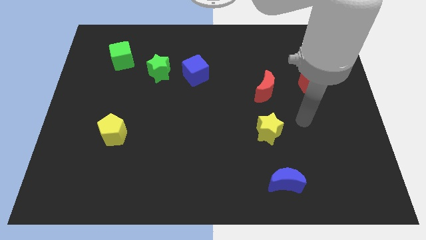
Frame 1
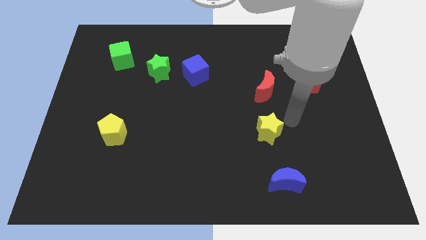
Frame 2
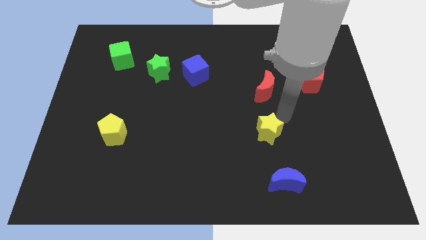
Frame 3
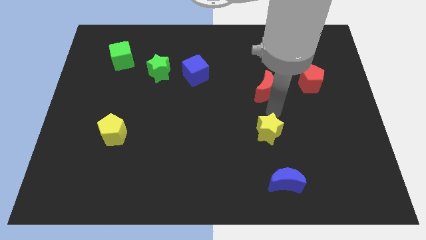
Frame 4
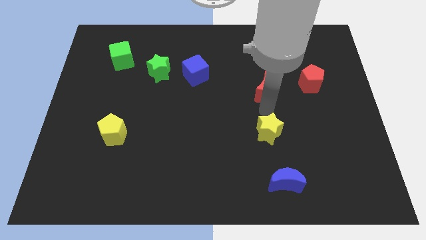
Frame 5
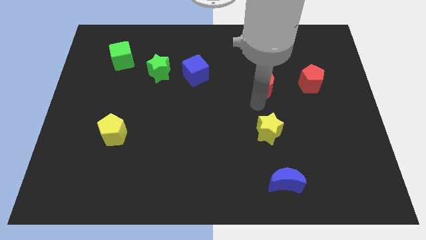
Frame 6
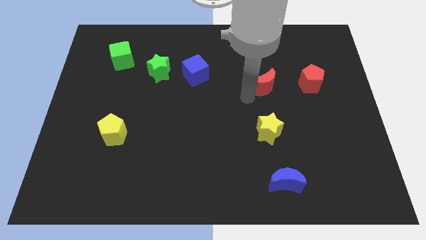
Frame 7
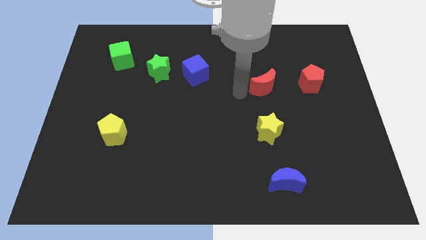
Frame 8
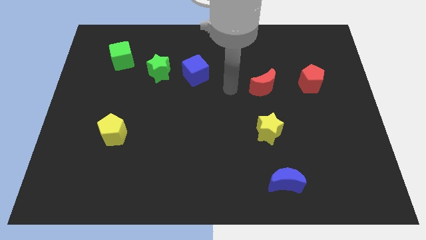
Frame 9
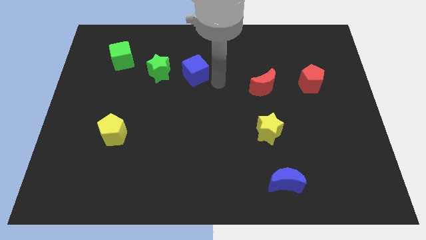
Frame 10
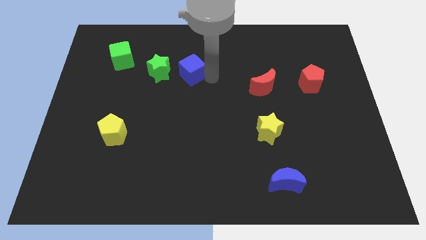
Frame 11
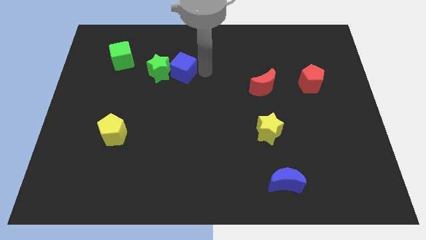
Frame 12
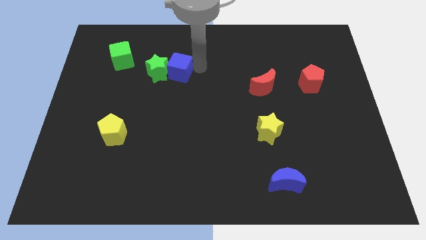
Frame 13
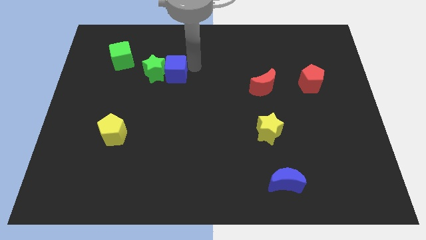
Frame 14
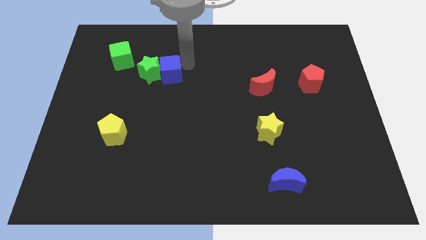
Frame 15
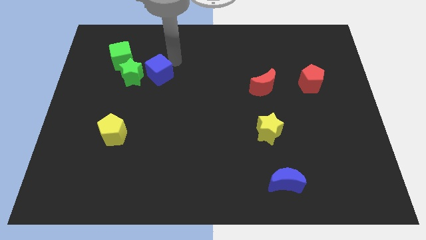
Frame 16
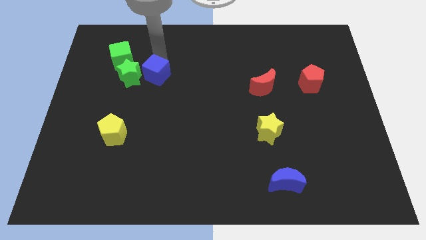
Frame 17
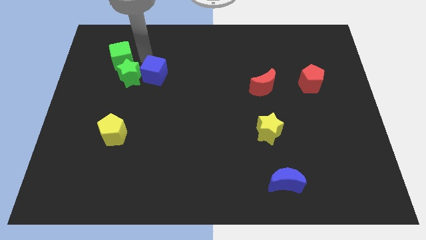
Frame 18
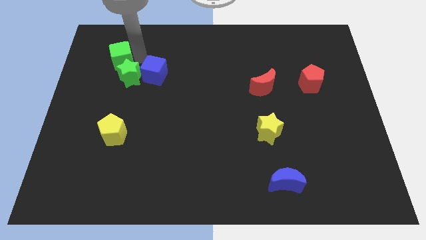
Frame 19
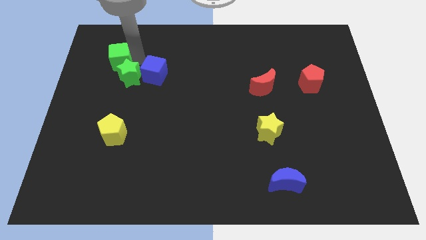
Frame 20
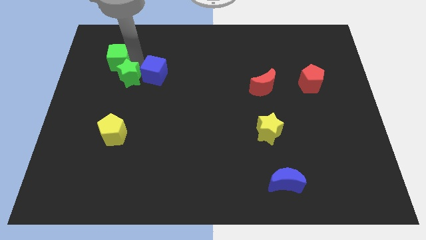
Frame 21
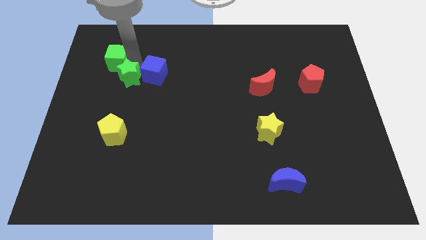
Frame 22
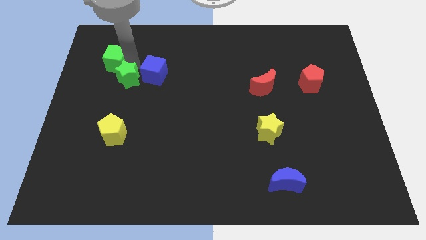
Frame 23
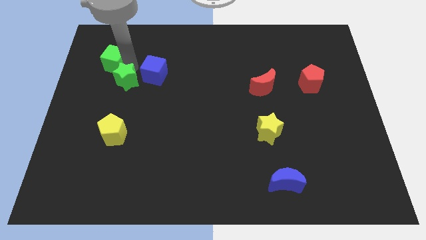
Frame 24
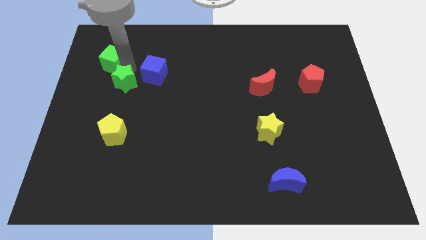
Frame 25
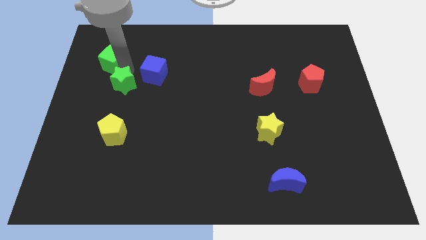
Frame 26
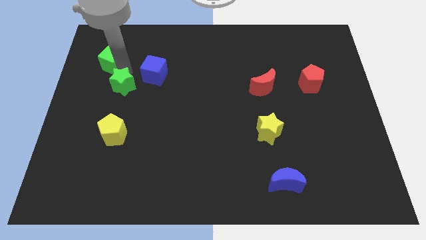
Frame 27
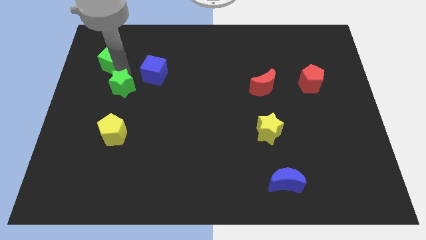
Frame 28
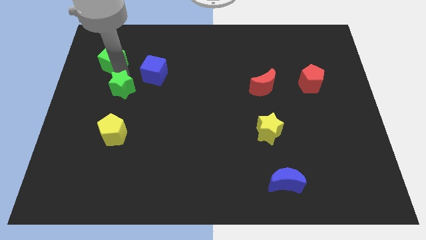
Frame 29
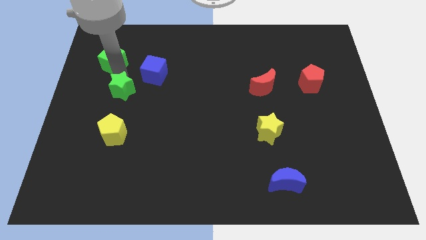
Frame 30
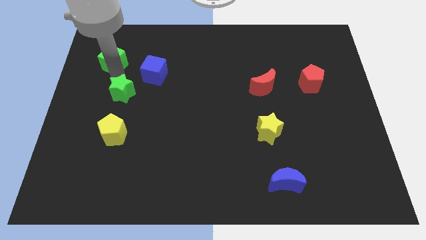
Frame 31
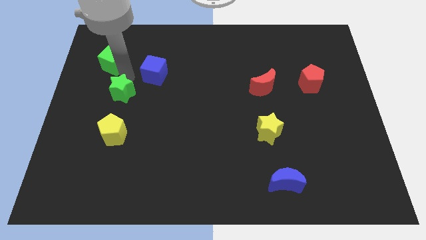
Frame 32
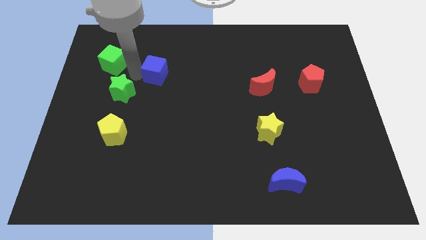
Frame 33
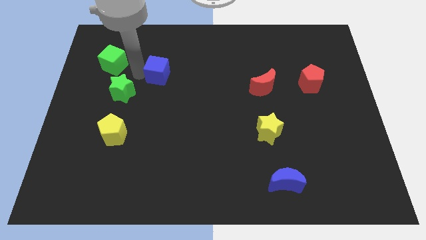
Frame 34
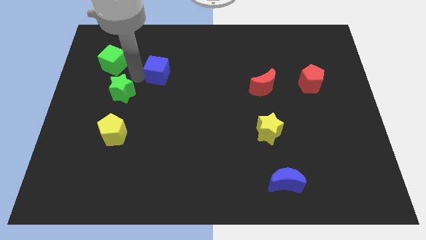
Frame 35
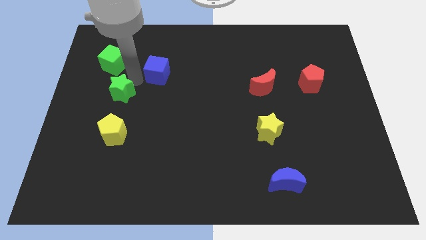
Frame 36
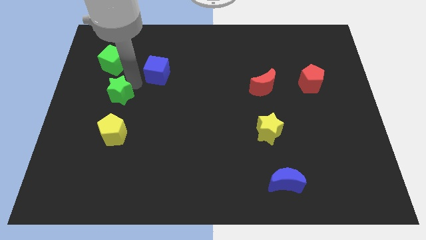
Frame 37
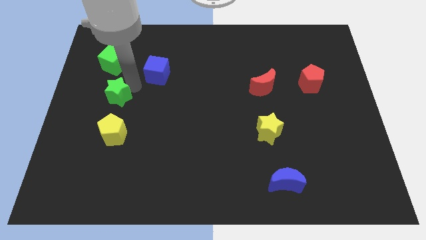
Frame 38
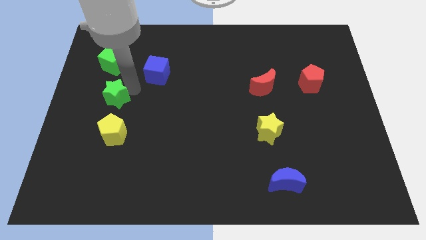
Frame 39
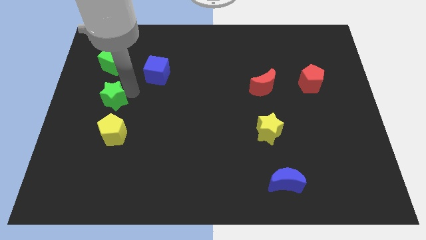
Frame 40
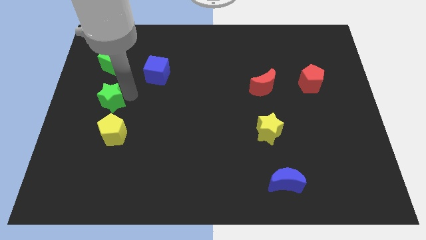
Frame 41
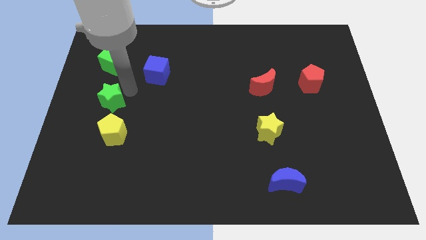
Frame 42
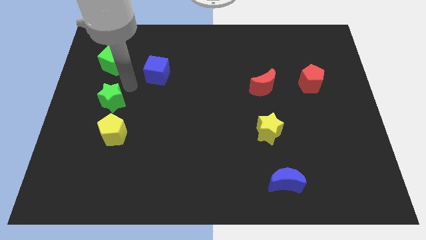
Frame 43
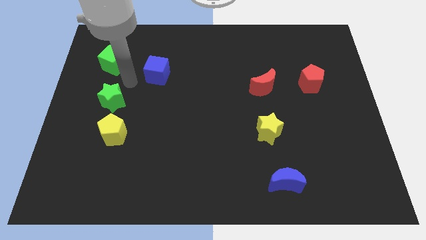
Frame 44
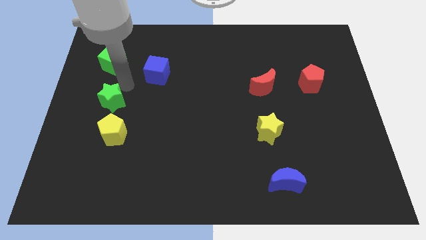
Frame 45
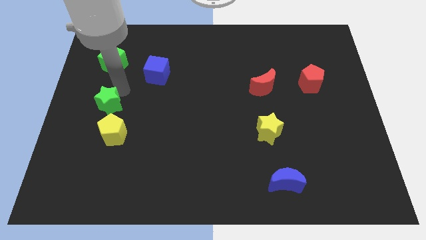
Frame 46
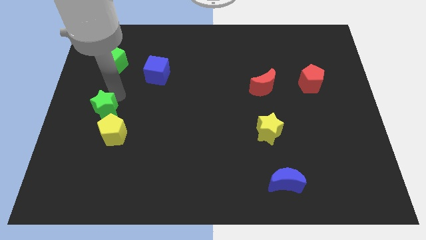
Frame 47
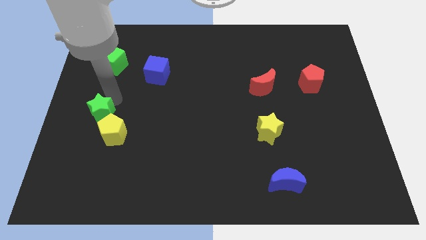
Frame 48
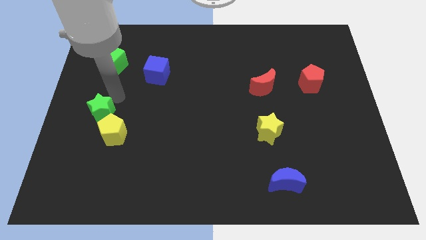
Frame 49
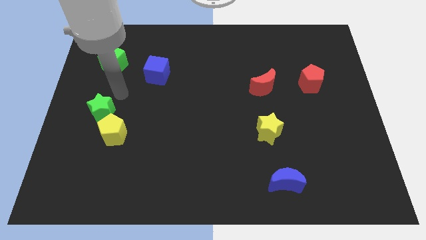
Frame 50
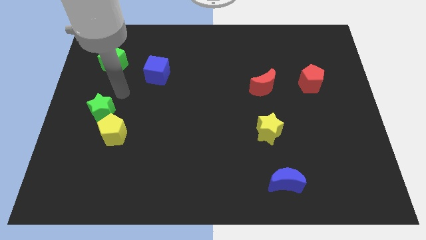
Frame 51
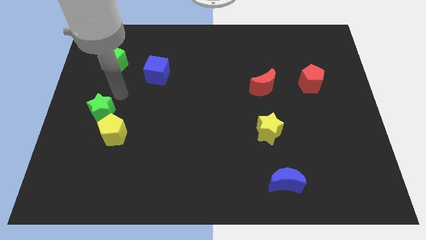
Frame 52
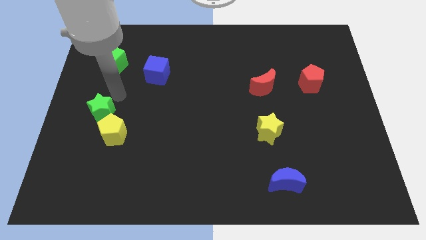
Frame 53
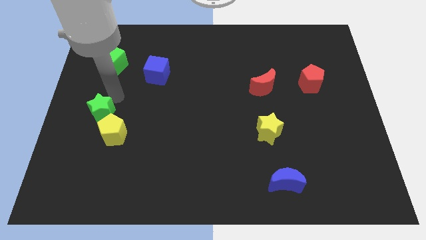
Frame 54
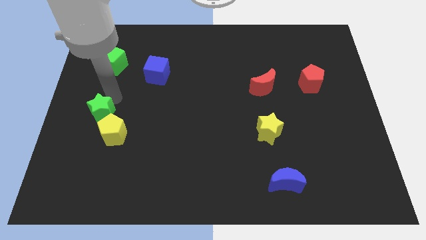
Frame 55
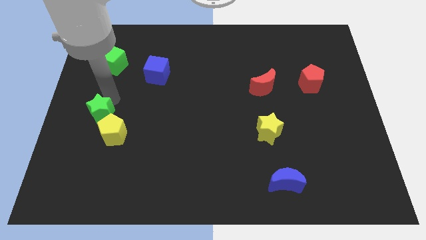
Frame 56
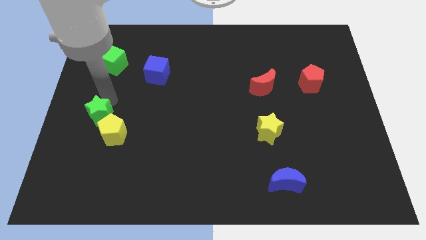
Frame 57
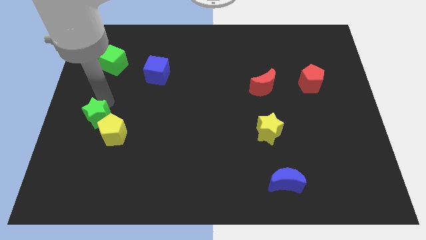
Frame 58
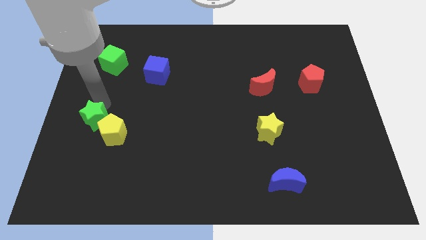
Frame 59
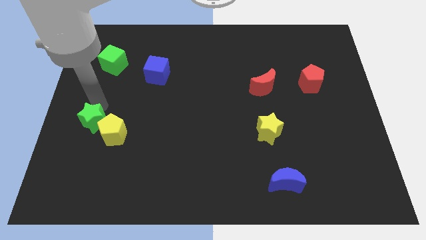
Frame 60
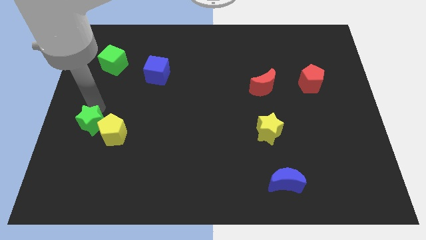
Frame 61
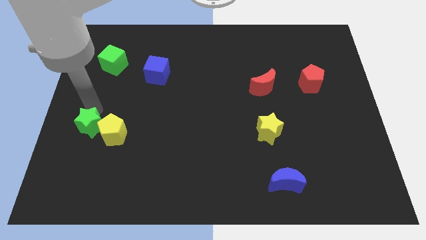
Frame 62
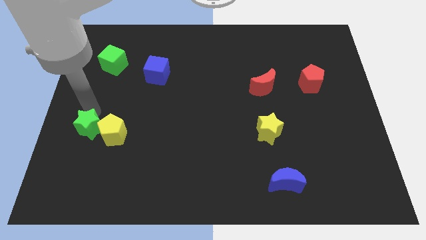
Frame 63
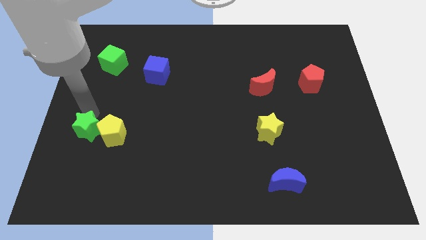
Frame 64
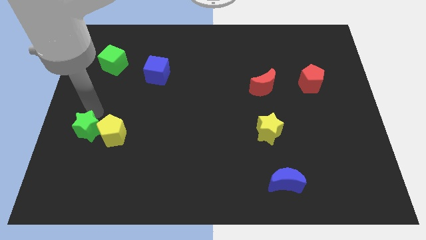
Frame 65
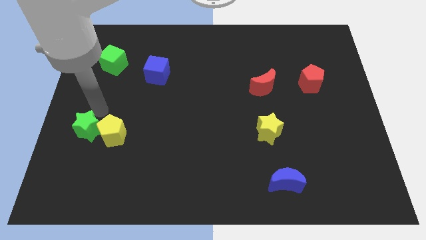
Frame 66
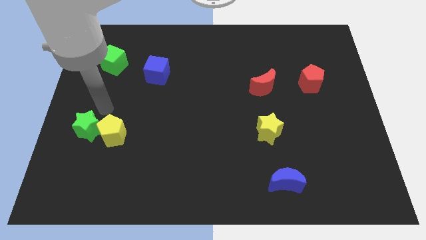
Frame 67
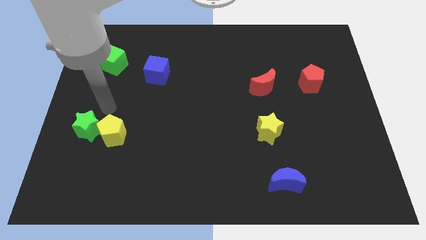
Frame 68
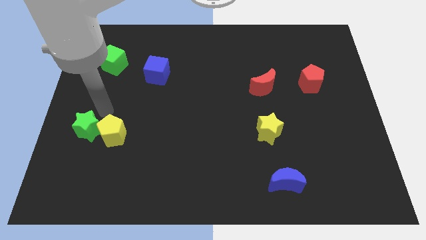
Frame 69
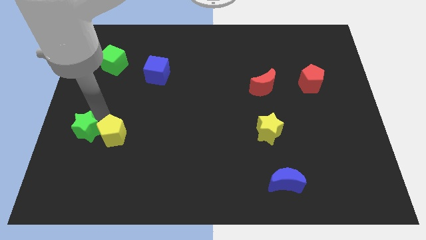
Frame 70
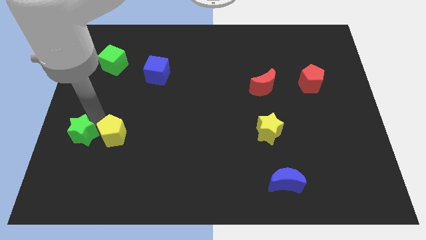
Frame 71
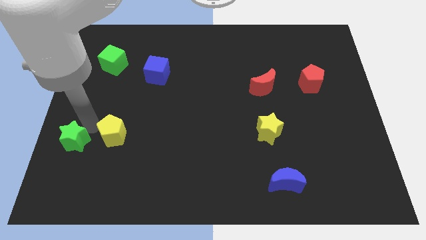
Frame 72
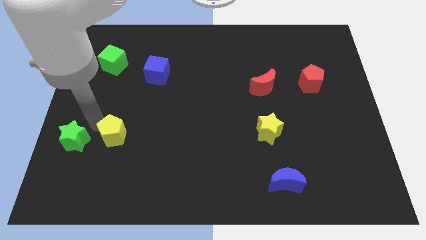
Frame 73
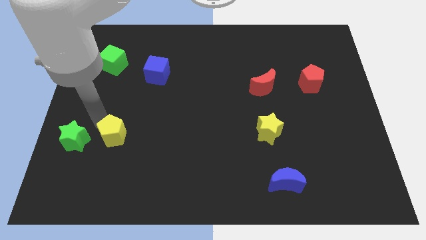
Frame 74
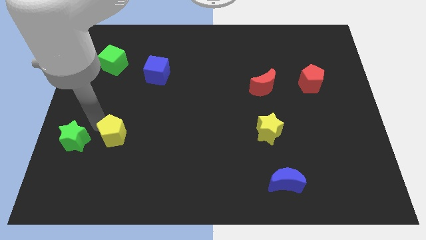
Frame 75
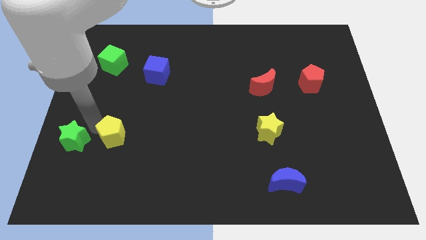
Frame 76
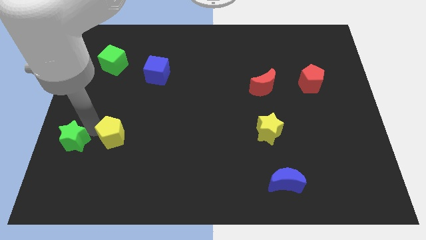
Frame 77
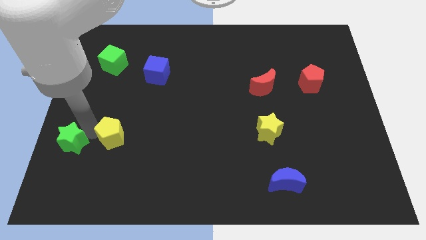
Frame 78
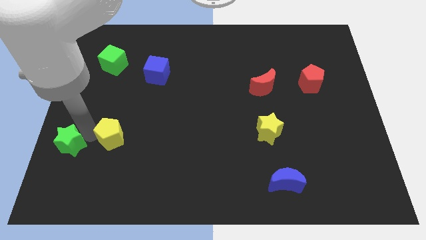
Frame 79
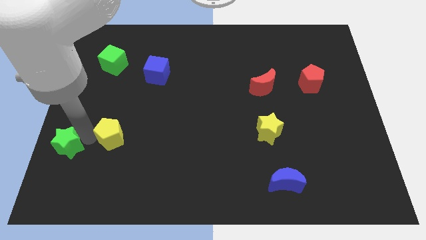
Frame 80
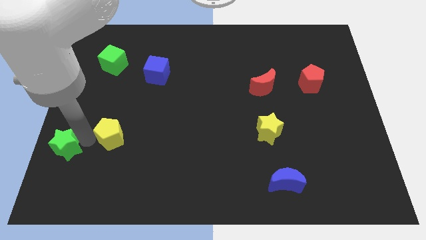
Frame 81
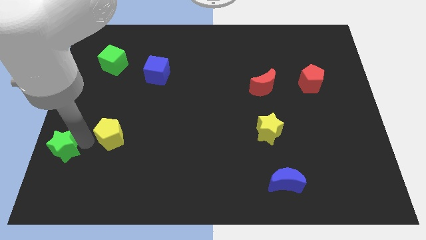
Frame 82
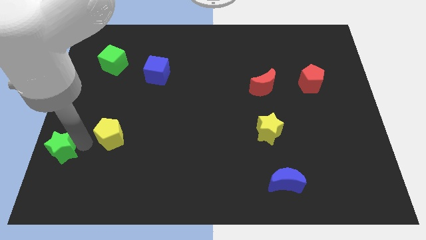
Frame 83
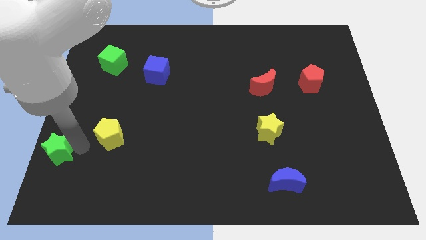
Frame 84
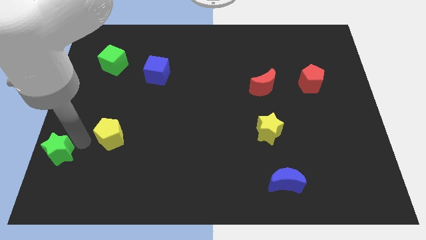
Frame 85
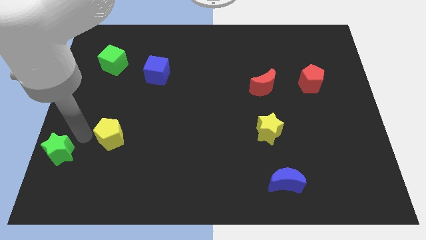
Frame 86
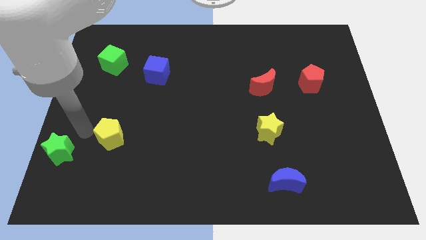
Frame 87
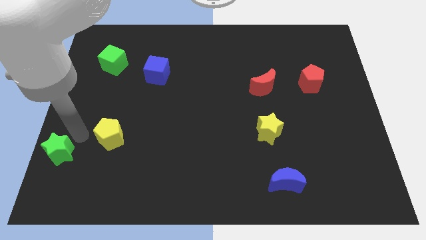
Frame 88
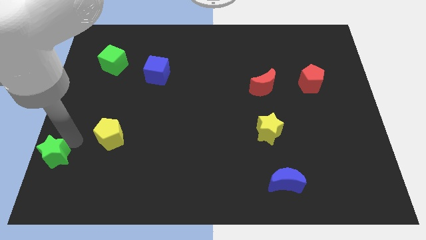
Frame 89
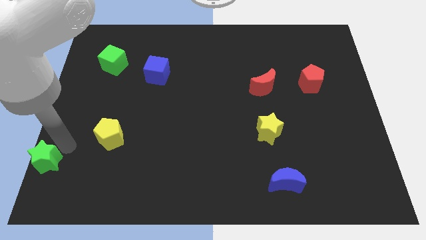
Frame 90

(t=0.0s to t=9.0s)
slide the green star to the bottom left of the board
